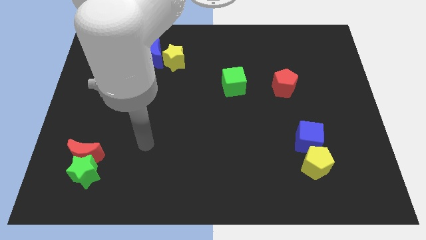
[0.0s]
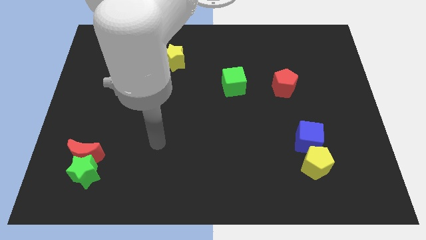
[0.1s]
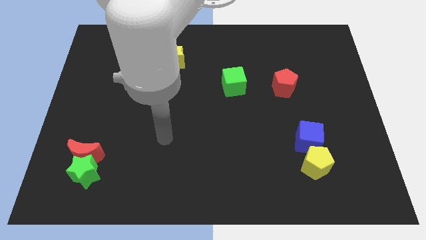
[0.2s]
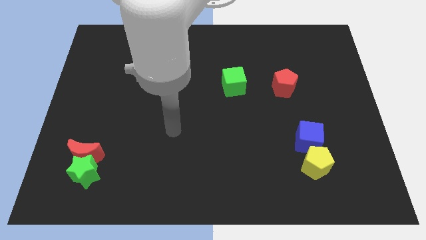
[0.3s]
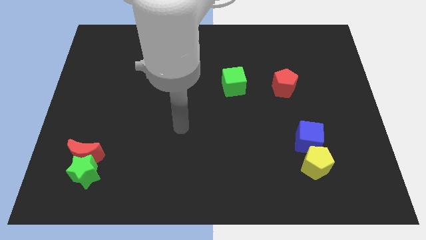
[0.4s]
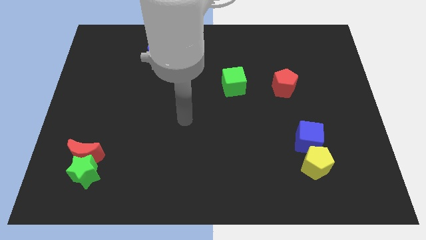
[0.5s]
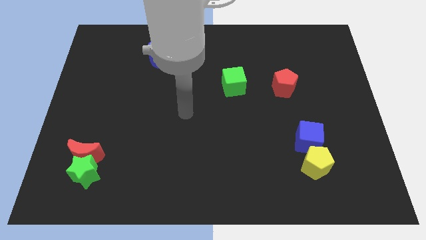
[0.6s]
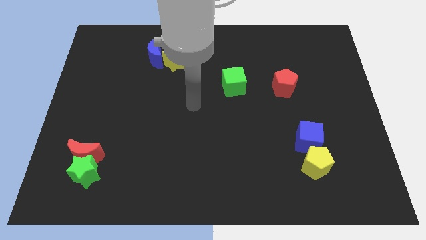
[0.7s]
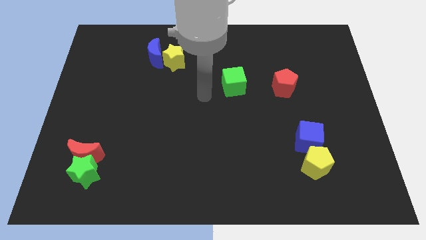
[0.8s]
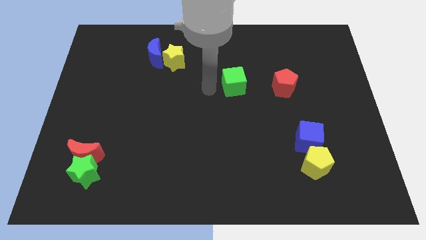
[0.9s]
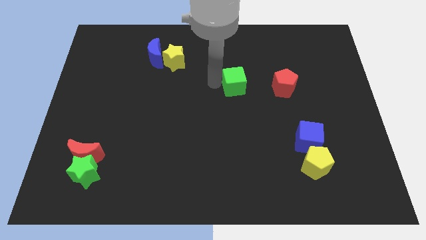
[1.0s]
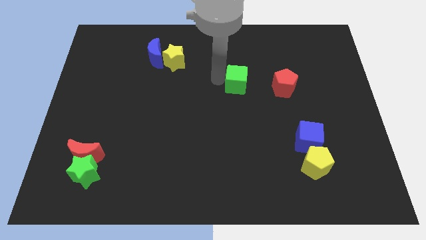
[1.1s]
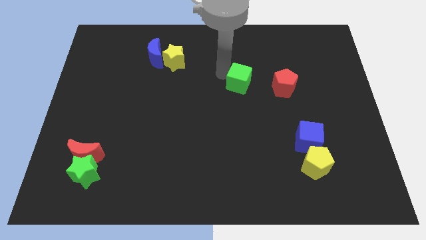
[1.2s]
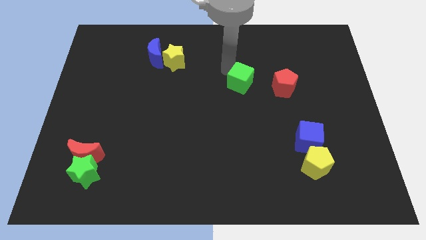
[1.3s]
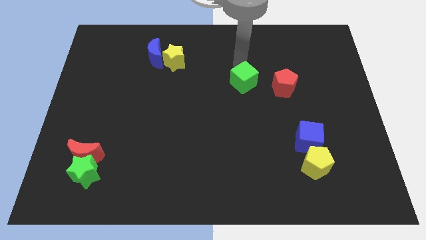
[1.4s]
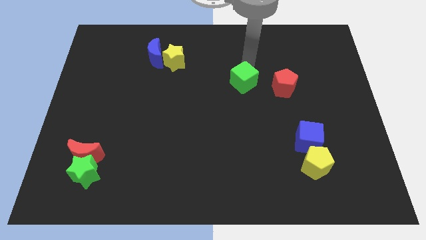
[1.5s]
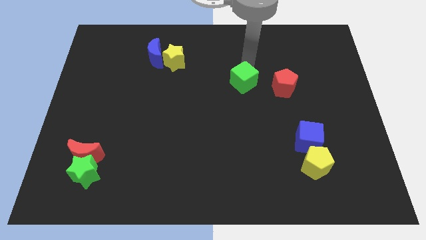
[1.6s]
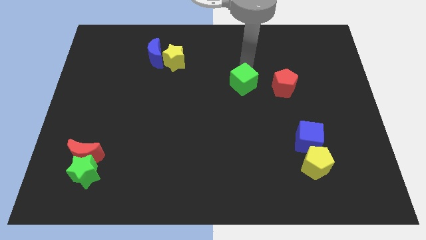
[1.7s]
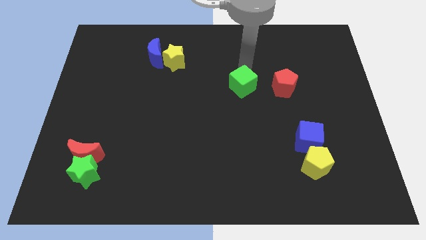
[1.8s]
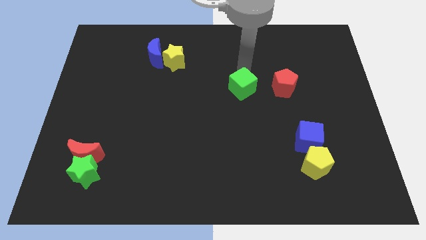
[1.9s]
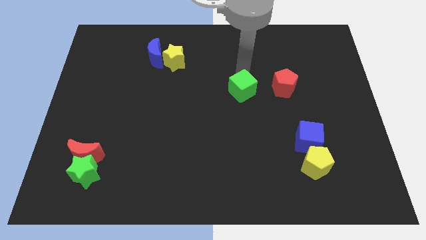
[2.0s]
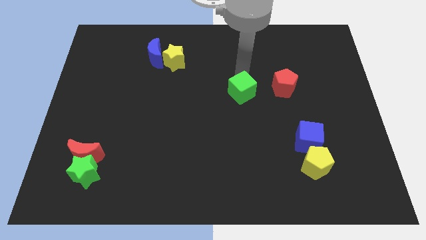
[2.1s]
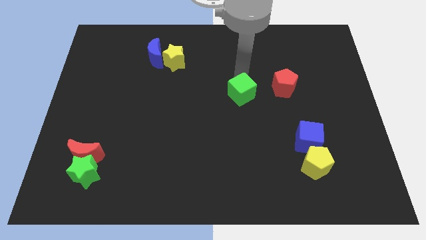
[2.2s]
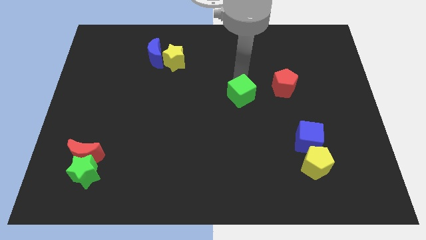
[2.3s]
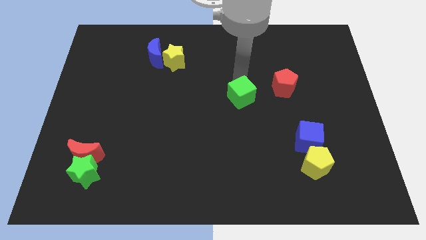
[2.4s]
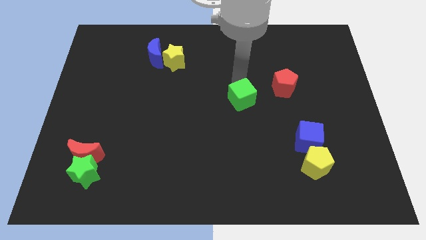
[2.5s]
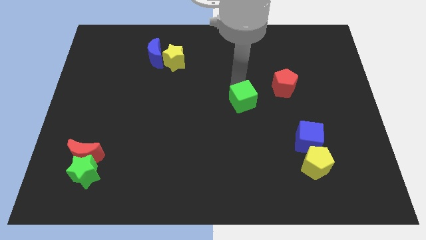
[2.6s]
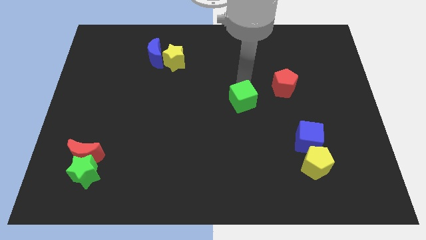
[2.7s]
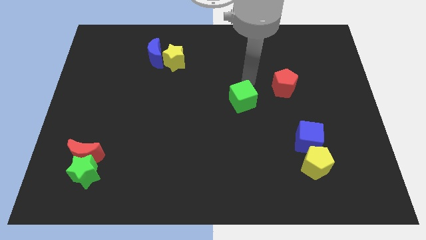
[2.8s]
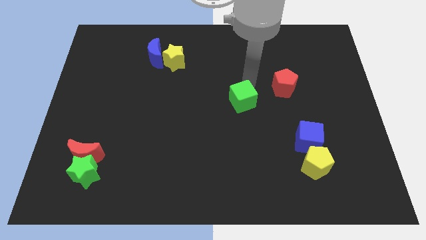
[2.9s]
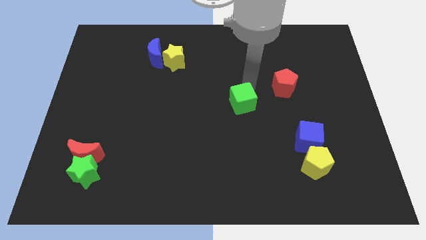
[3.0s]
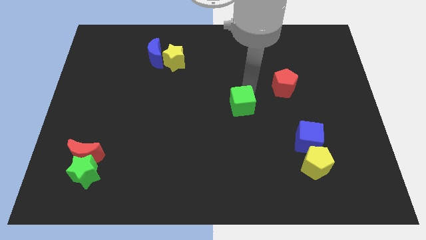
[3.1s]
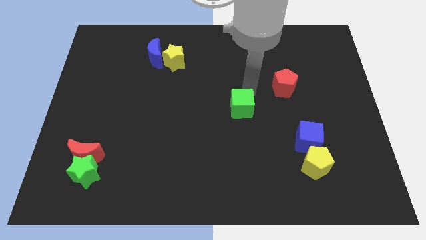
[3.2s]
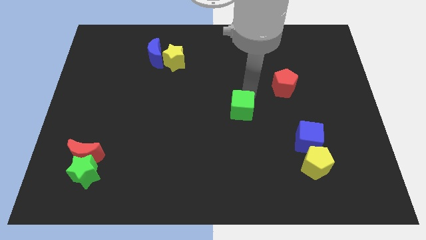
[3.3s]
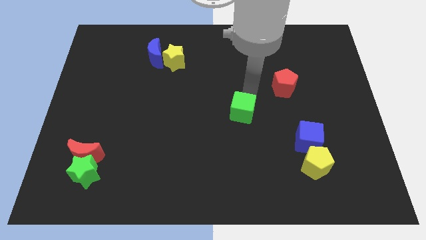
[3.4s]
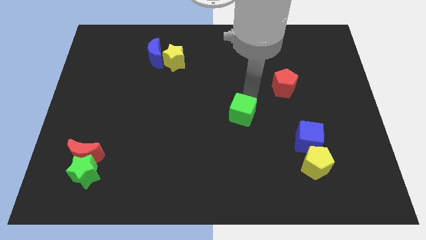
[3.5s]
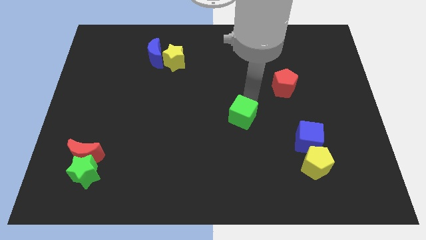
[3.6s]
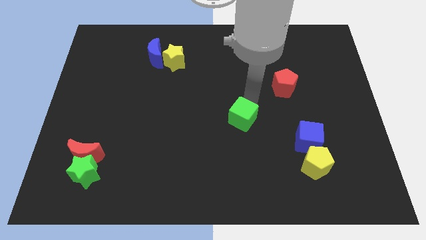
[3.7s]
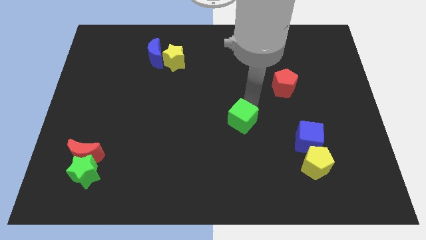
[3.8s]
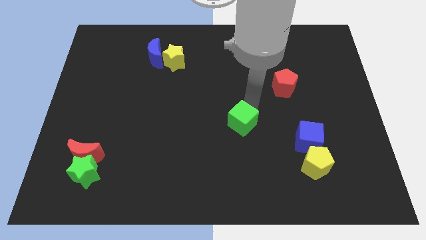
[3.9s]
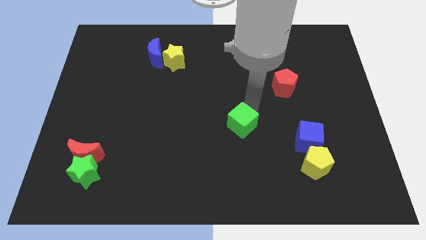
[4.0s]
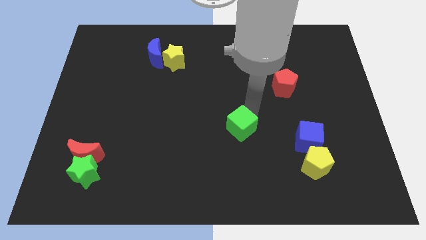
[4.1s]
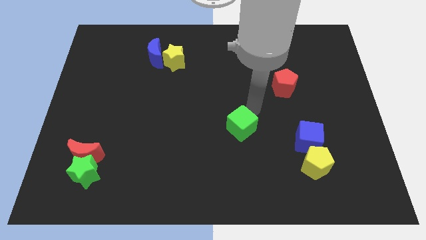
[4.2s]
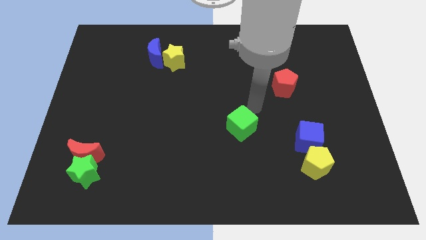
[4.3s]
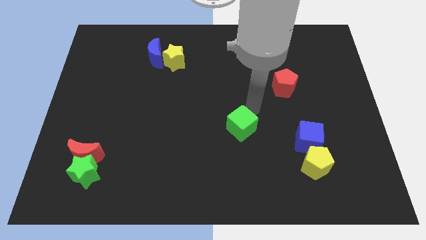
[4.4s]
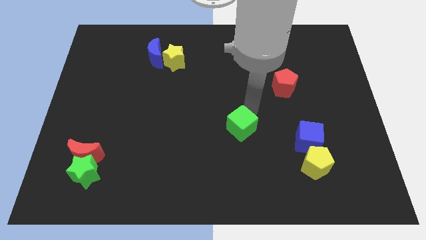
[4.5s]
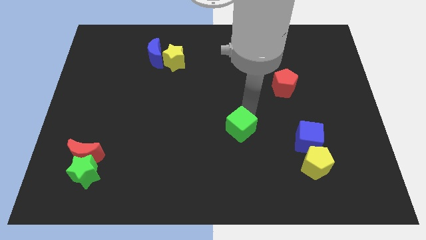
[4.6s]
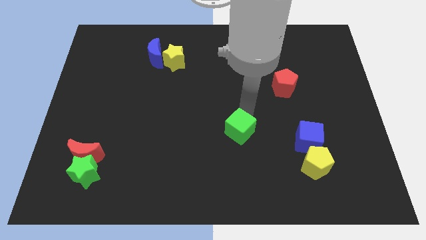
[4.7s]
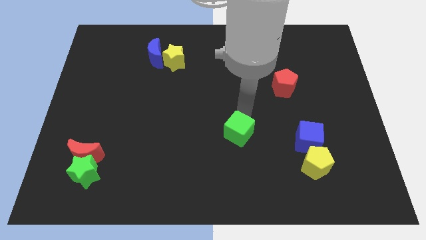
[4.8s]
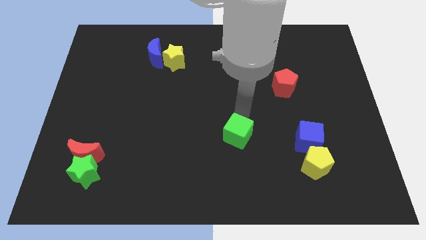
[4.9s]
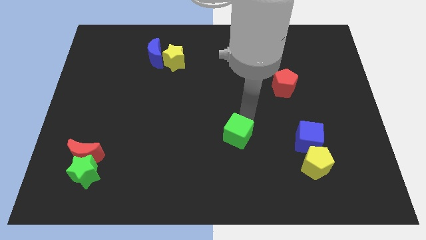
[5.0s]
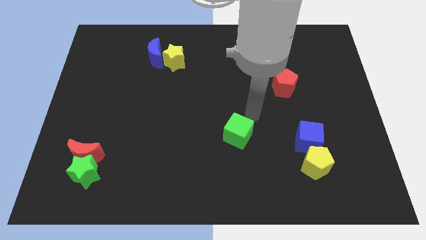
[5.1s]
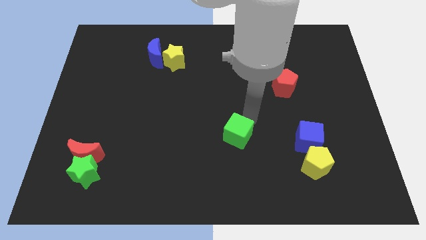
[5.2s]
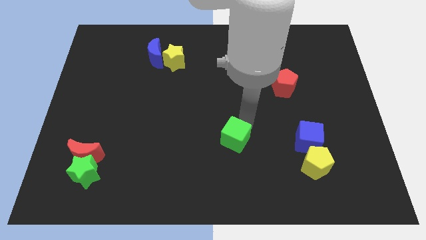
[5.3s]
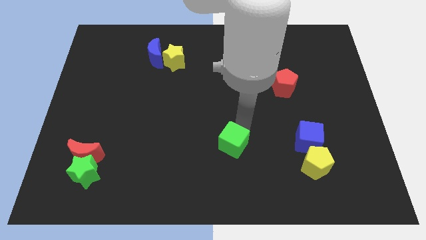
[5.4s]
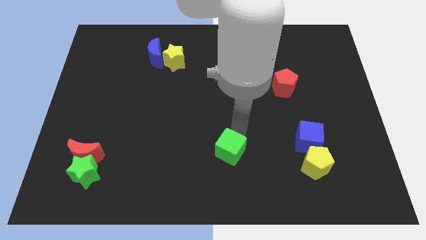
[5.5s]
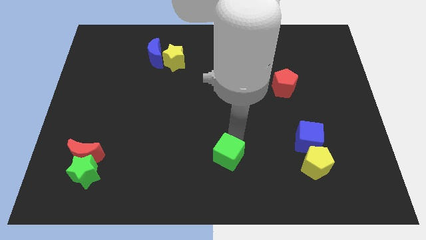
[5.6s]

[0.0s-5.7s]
put the green cube to the bottom

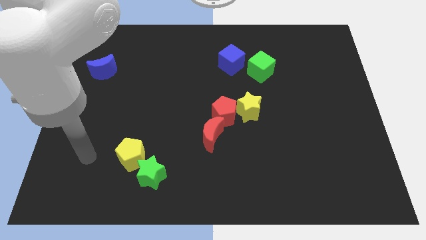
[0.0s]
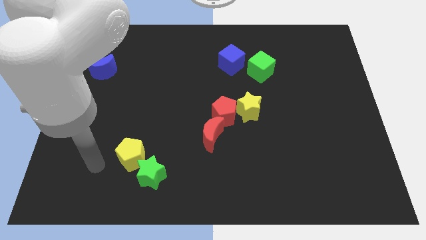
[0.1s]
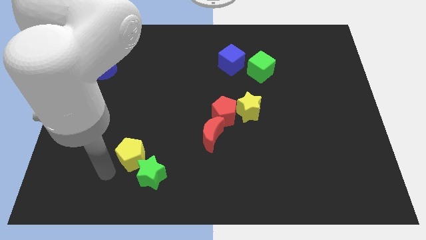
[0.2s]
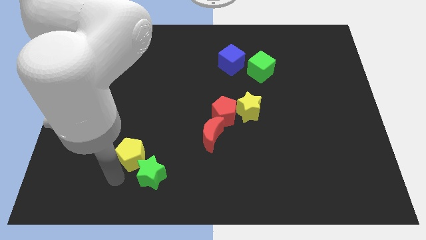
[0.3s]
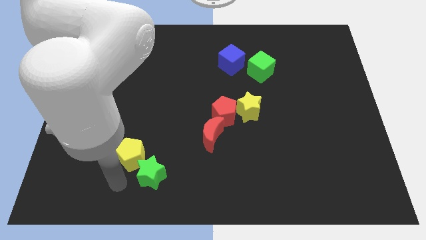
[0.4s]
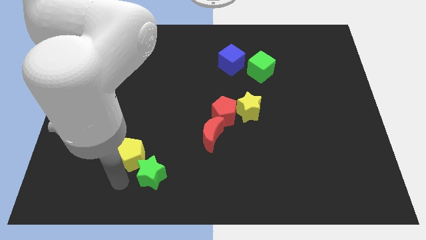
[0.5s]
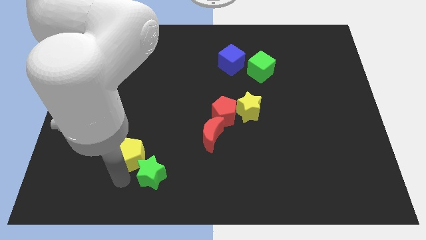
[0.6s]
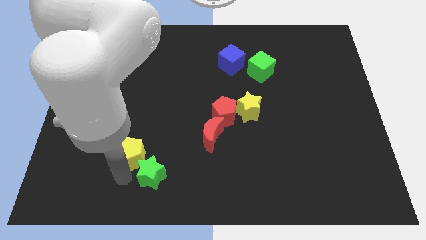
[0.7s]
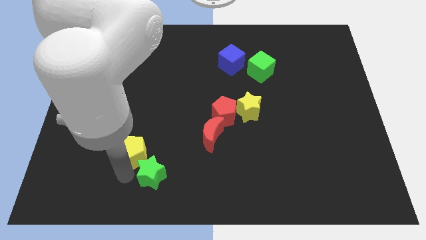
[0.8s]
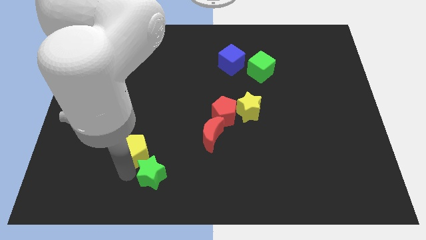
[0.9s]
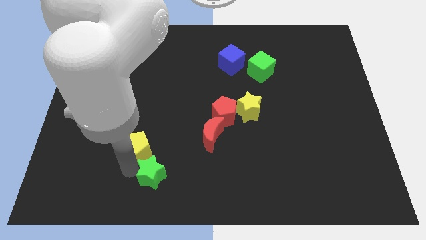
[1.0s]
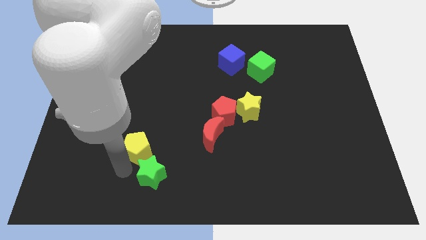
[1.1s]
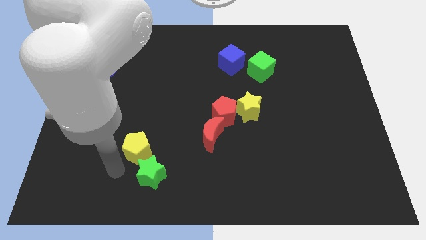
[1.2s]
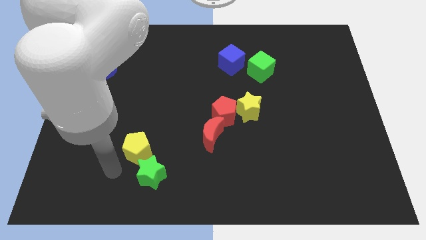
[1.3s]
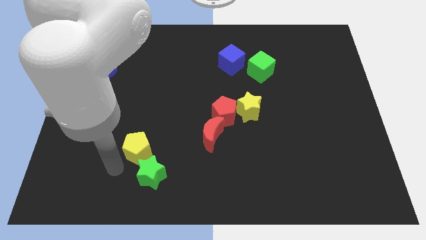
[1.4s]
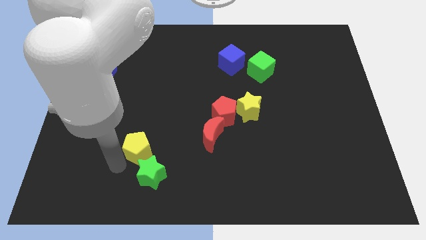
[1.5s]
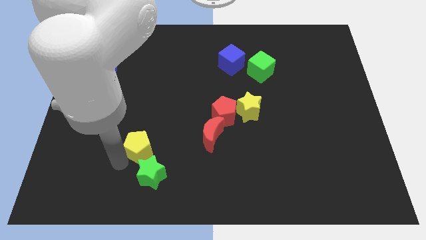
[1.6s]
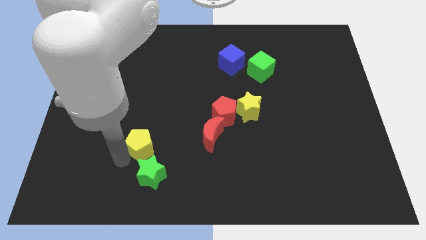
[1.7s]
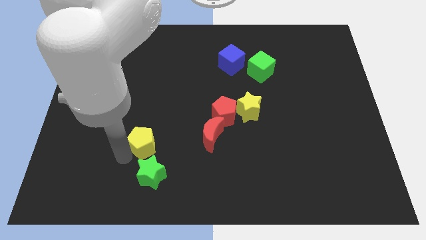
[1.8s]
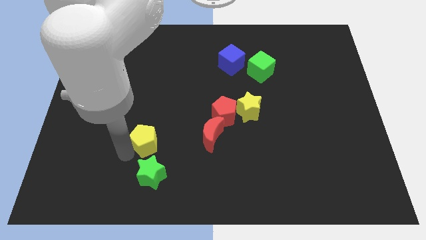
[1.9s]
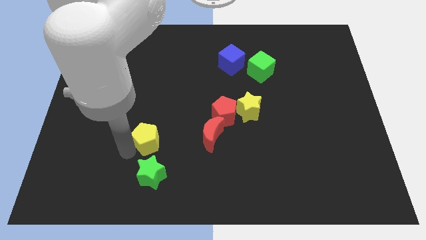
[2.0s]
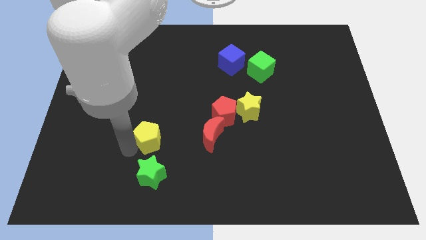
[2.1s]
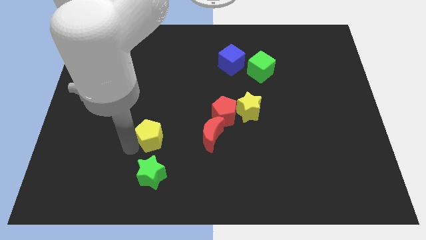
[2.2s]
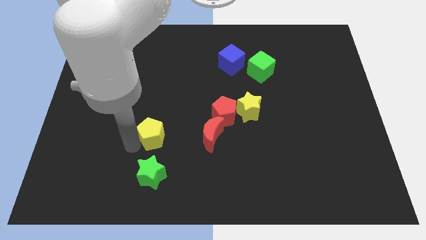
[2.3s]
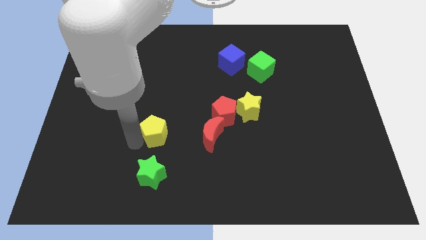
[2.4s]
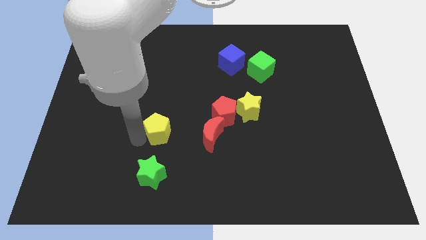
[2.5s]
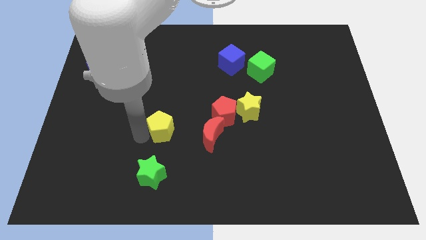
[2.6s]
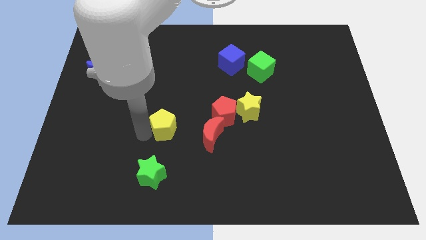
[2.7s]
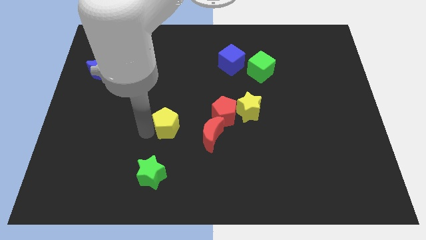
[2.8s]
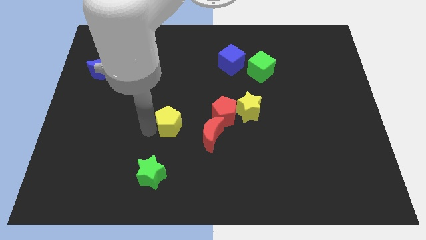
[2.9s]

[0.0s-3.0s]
push the yellow pentagon to the middle of the board
